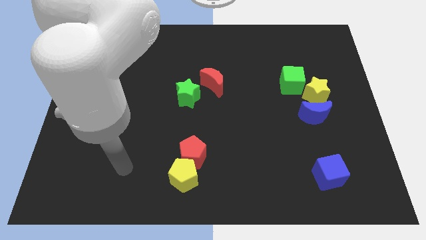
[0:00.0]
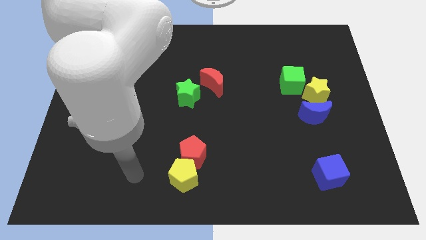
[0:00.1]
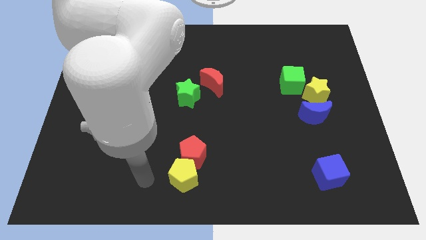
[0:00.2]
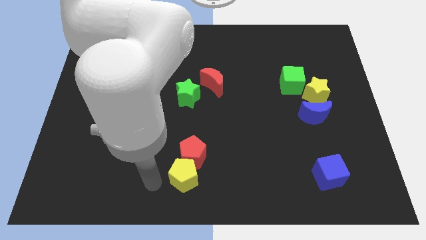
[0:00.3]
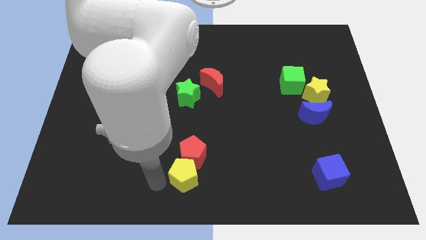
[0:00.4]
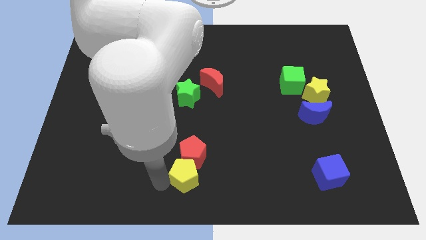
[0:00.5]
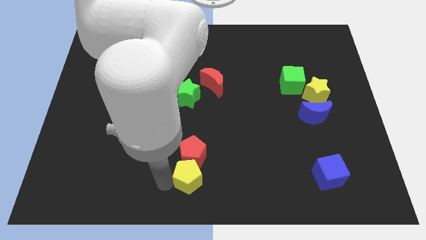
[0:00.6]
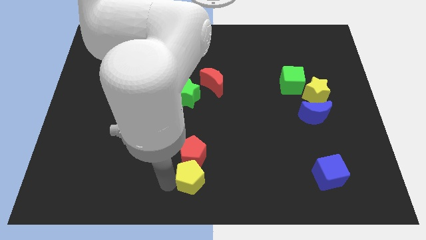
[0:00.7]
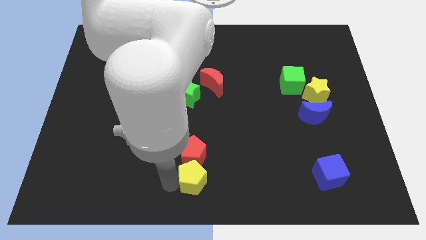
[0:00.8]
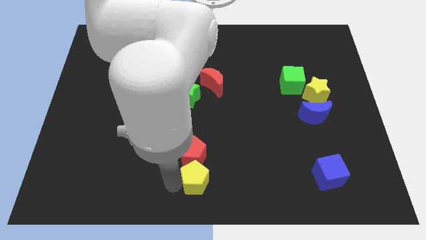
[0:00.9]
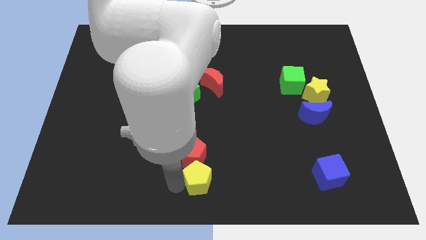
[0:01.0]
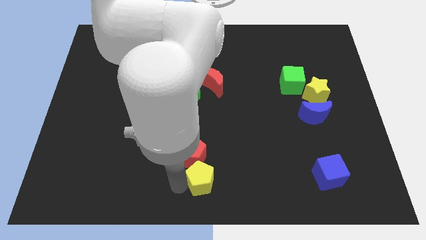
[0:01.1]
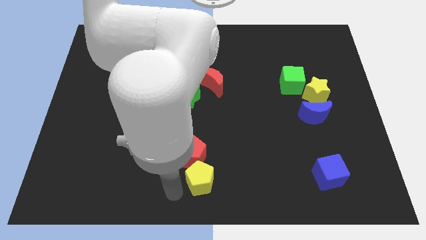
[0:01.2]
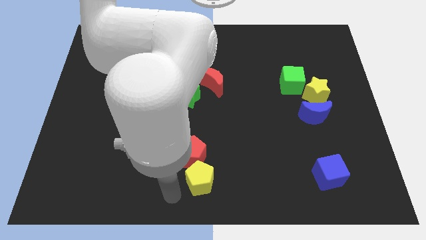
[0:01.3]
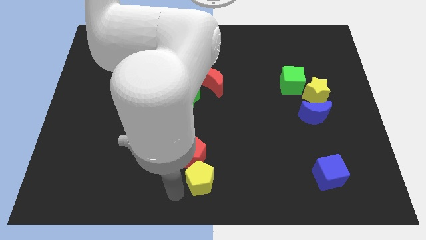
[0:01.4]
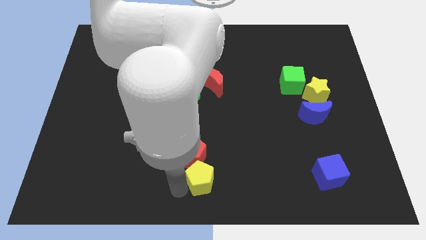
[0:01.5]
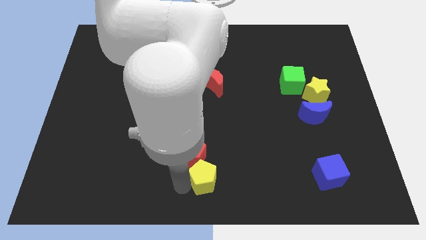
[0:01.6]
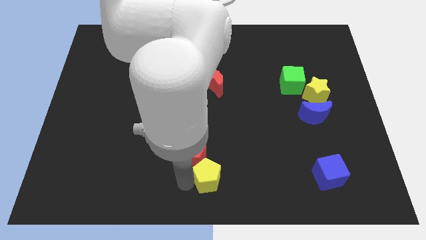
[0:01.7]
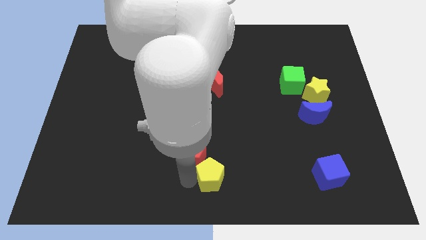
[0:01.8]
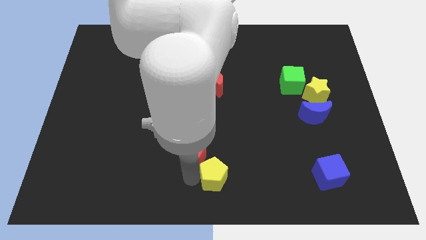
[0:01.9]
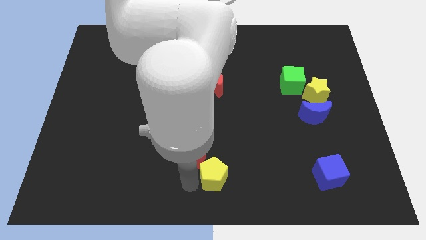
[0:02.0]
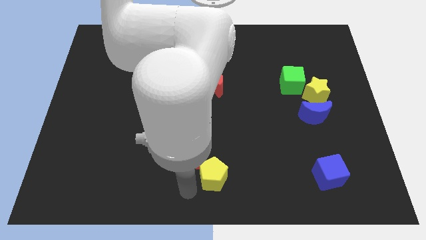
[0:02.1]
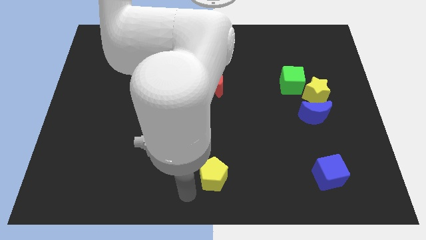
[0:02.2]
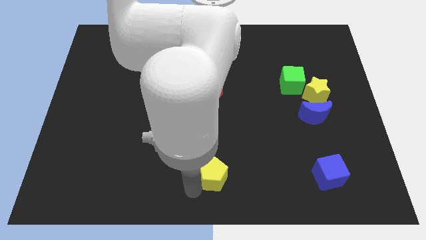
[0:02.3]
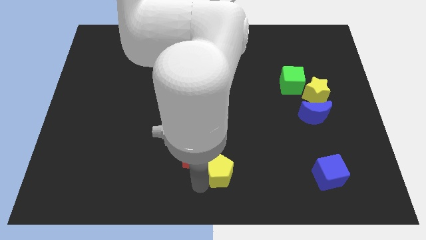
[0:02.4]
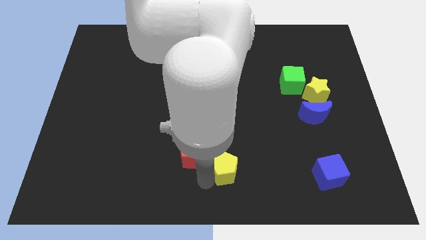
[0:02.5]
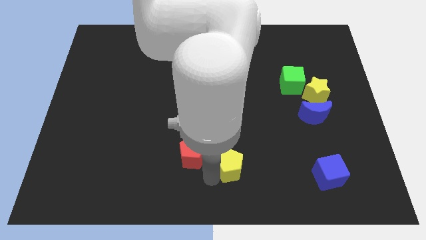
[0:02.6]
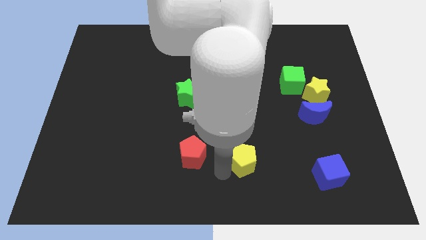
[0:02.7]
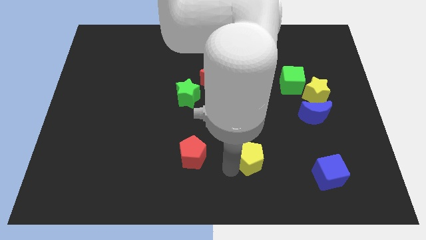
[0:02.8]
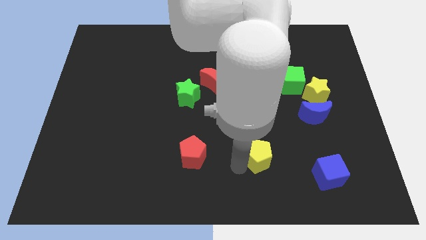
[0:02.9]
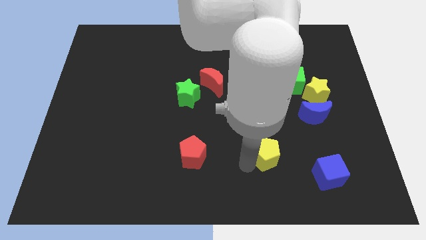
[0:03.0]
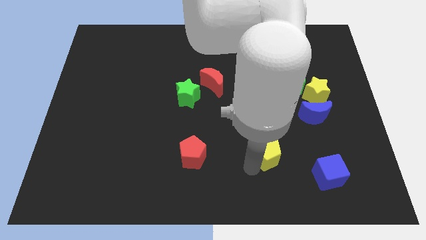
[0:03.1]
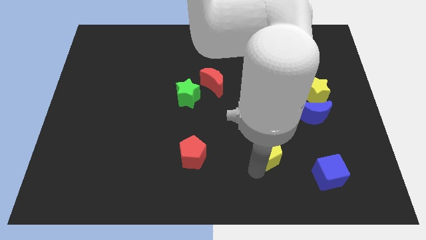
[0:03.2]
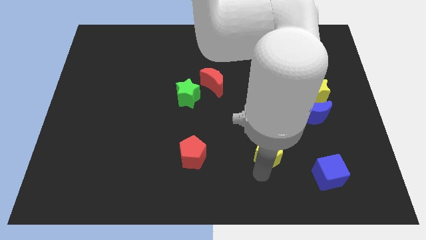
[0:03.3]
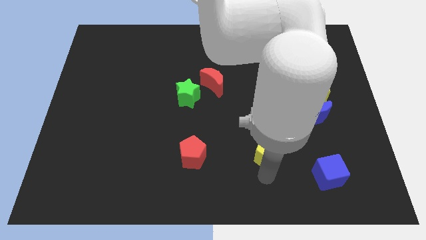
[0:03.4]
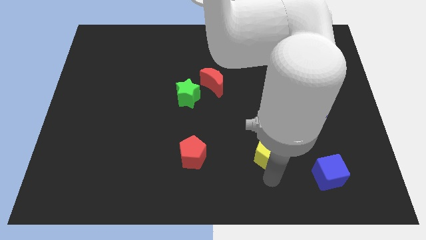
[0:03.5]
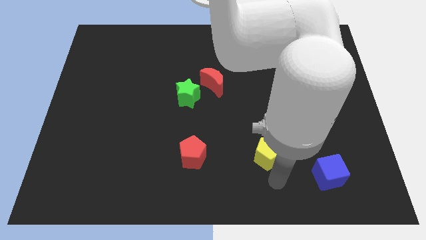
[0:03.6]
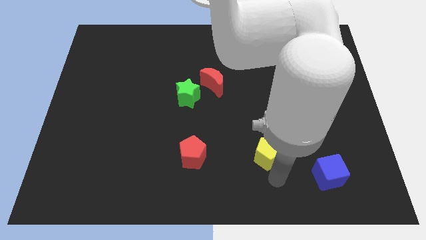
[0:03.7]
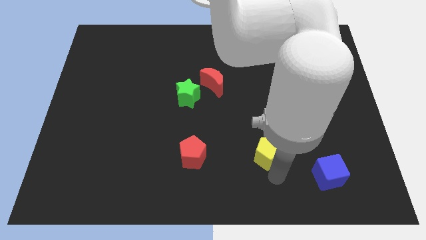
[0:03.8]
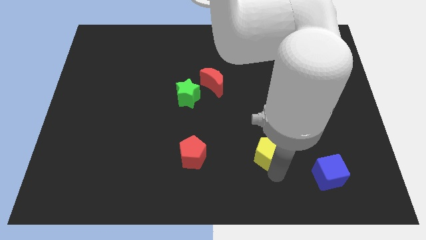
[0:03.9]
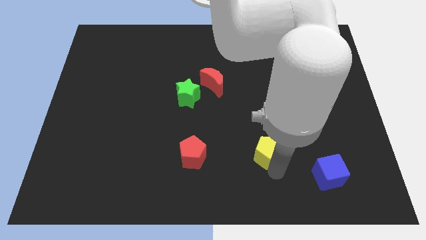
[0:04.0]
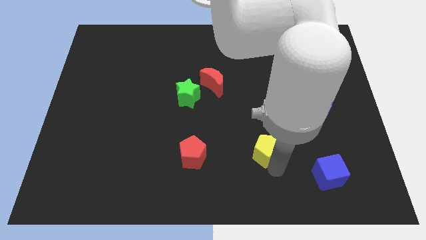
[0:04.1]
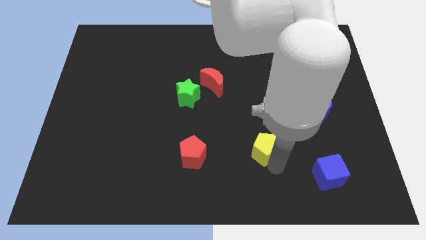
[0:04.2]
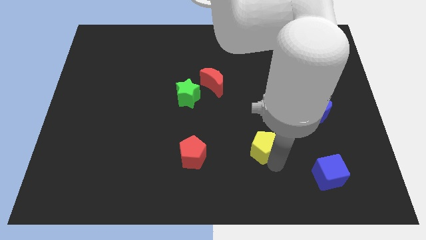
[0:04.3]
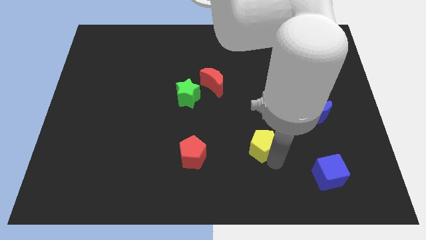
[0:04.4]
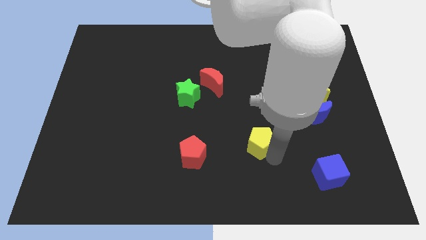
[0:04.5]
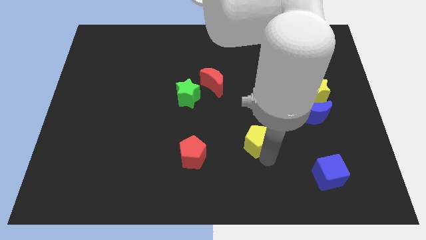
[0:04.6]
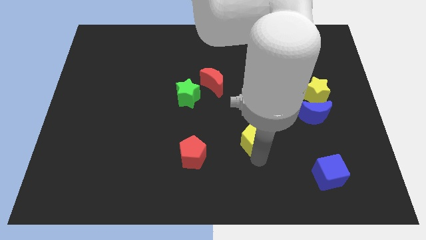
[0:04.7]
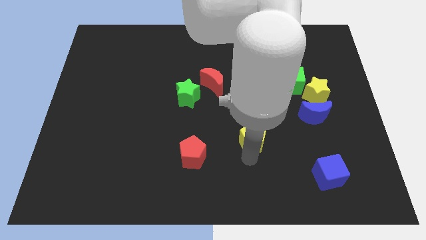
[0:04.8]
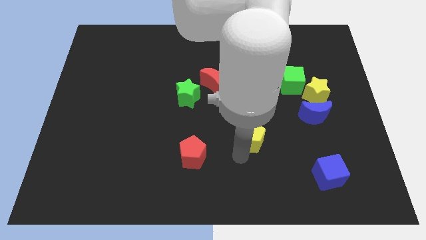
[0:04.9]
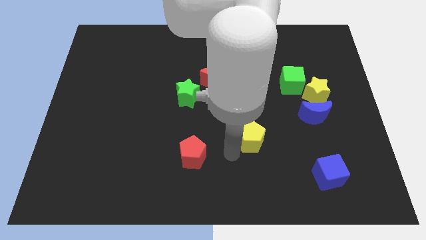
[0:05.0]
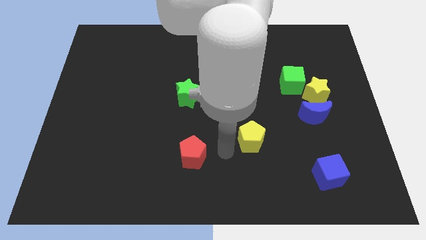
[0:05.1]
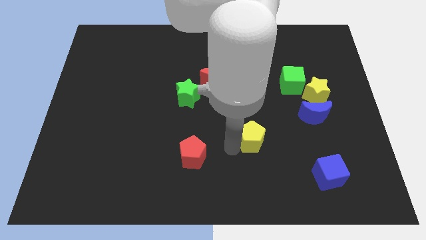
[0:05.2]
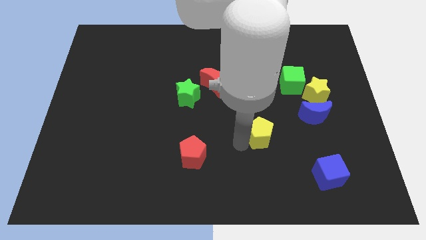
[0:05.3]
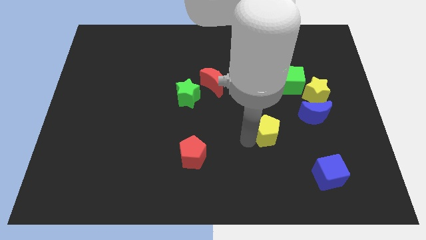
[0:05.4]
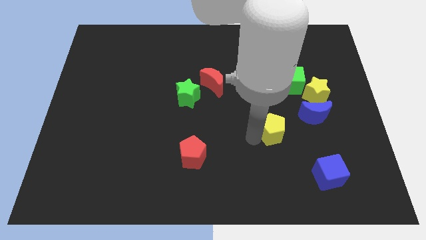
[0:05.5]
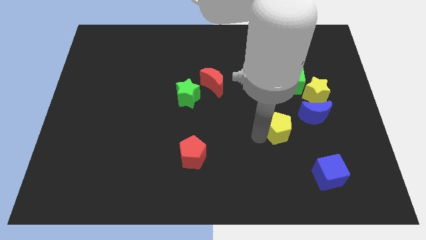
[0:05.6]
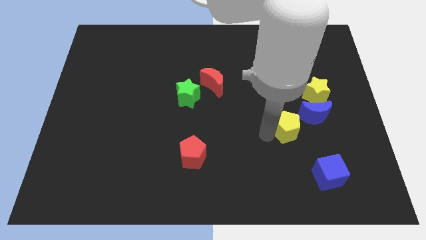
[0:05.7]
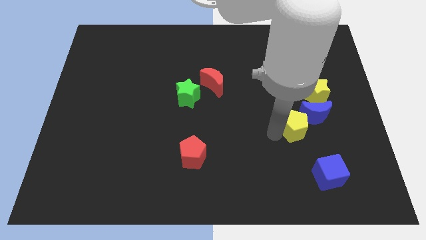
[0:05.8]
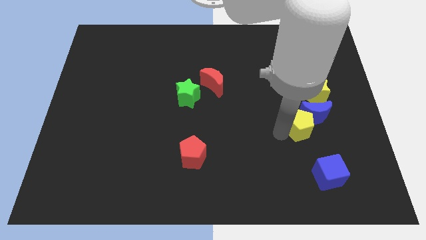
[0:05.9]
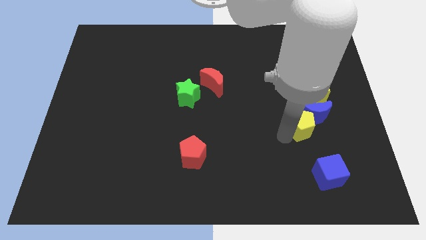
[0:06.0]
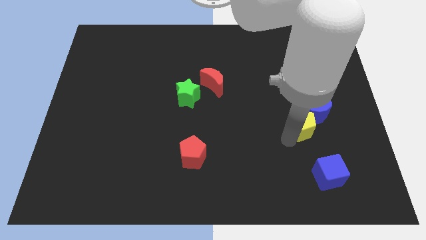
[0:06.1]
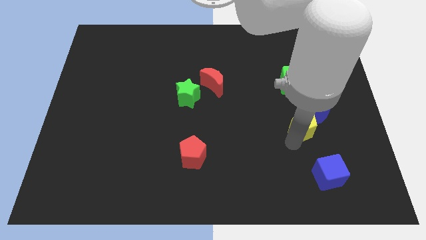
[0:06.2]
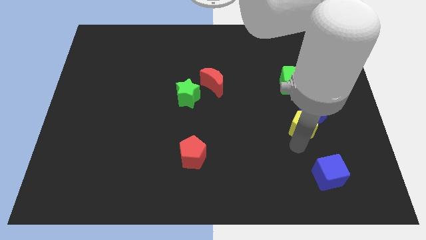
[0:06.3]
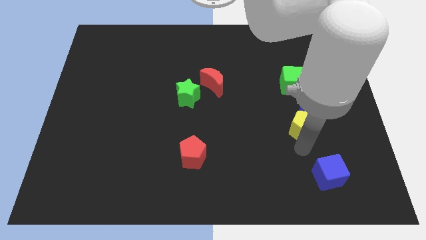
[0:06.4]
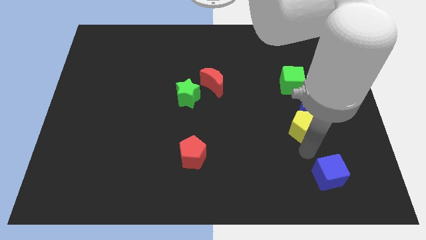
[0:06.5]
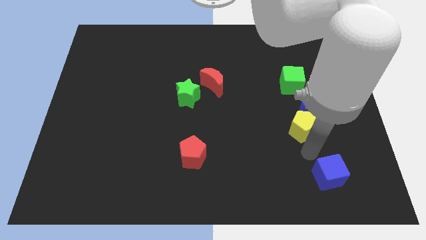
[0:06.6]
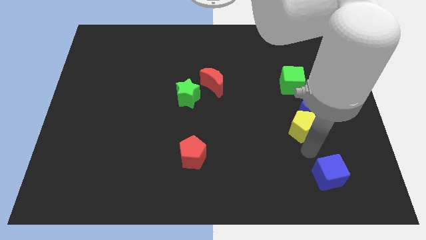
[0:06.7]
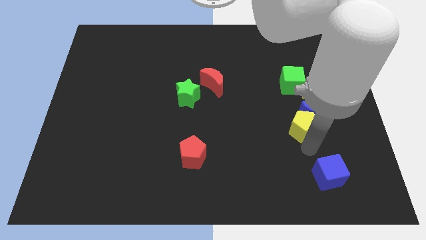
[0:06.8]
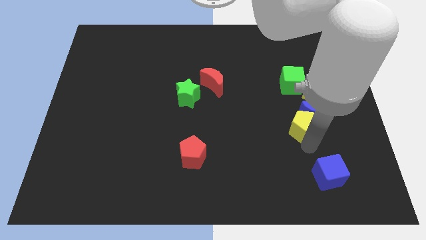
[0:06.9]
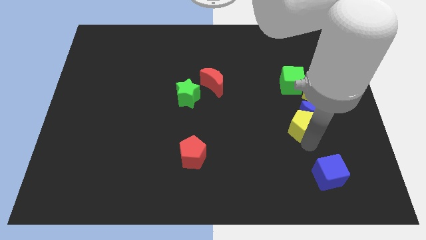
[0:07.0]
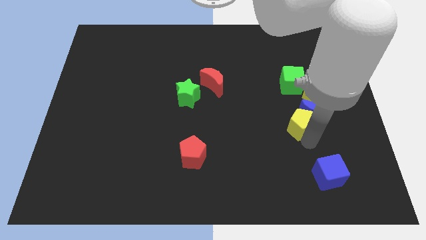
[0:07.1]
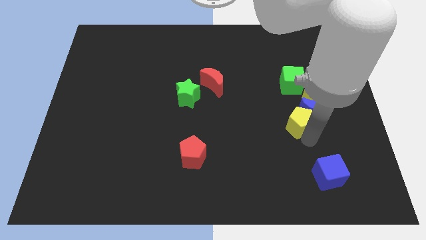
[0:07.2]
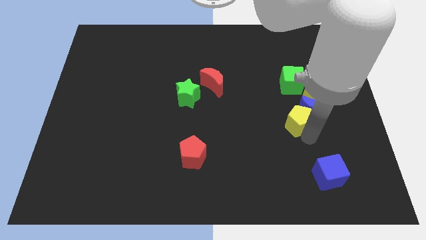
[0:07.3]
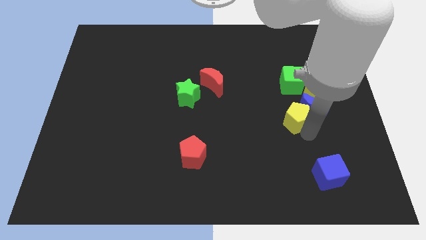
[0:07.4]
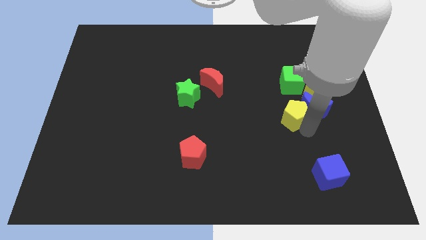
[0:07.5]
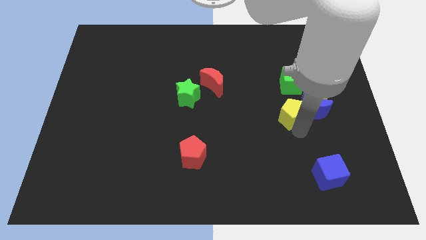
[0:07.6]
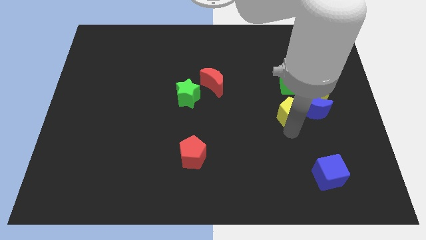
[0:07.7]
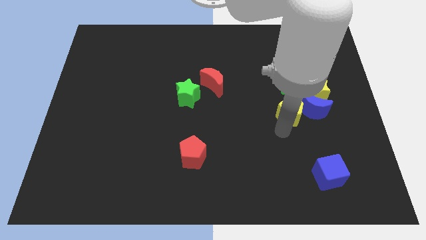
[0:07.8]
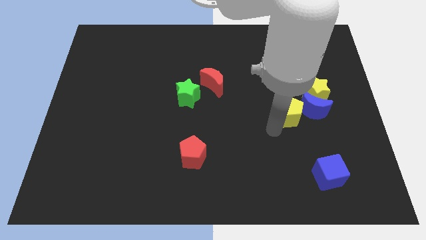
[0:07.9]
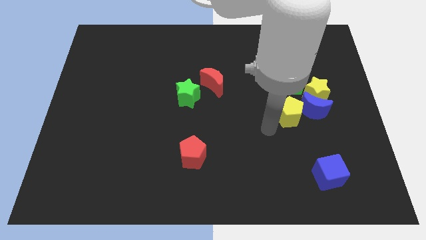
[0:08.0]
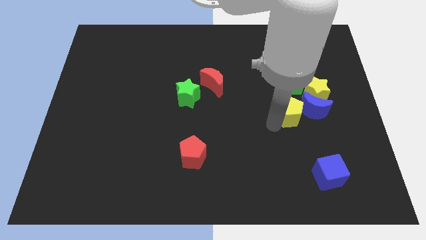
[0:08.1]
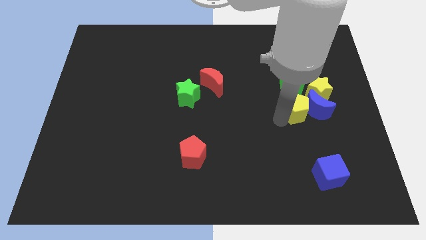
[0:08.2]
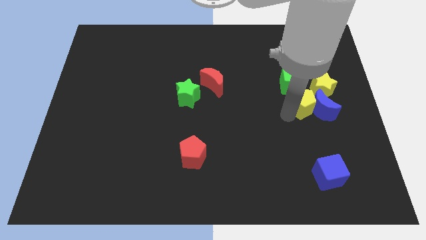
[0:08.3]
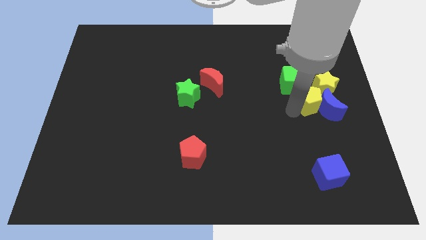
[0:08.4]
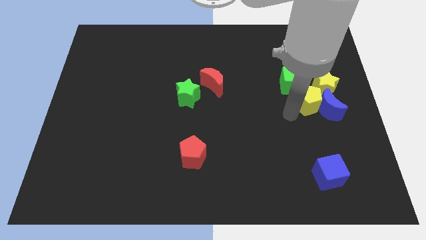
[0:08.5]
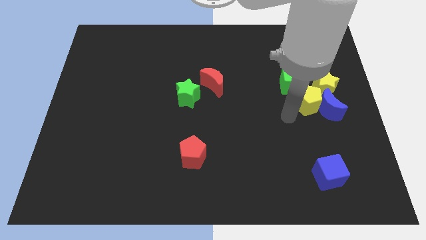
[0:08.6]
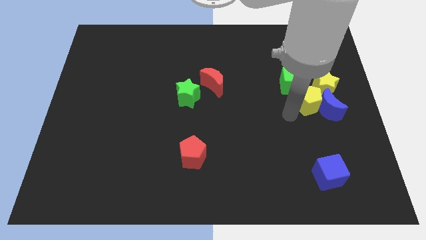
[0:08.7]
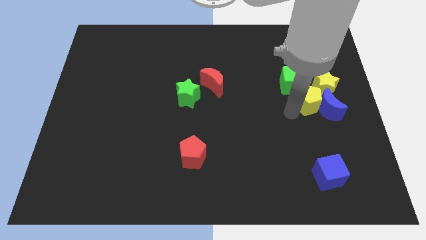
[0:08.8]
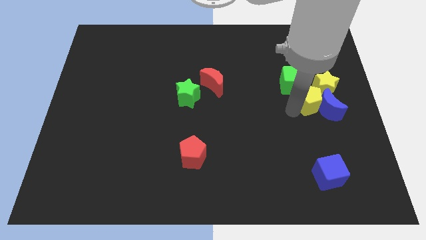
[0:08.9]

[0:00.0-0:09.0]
put the yellow pentagon towards the yellow star
